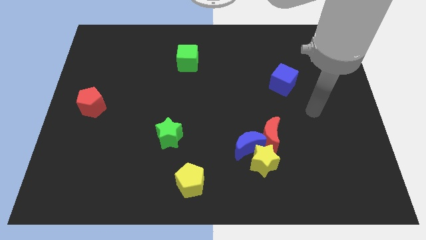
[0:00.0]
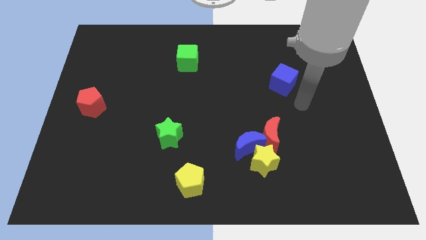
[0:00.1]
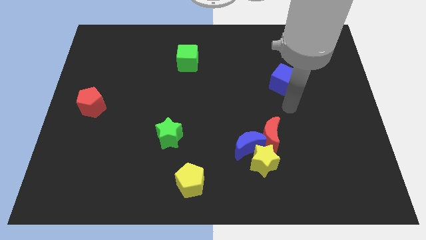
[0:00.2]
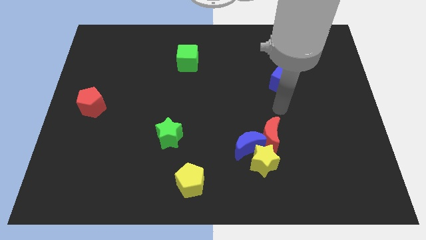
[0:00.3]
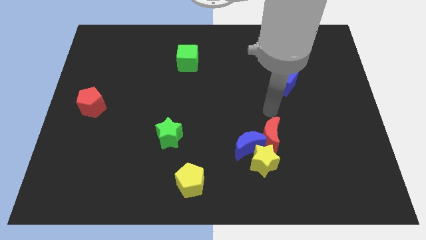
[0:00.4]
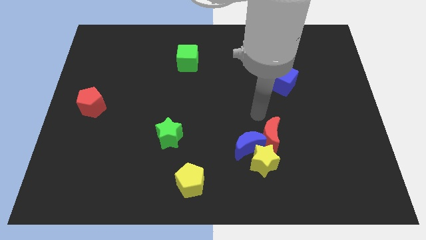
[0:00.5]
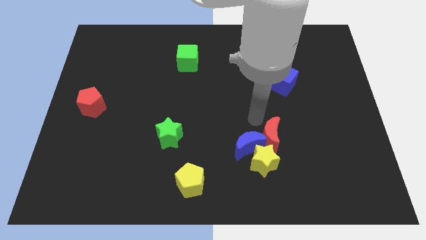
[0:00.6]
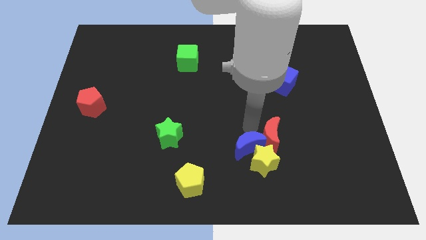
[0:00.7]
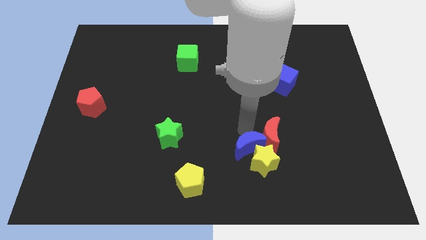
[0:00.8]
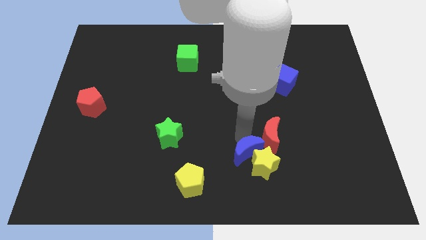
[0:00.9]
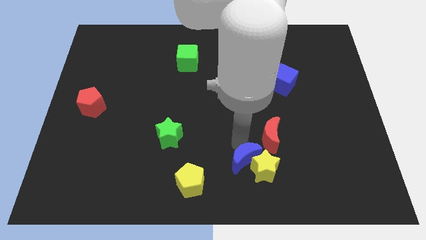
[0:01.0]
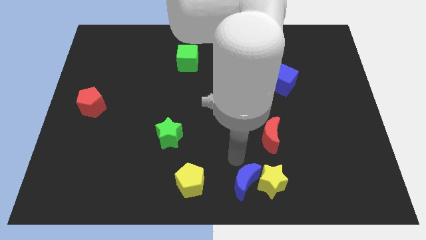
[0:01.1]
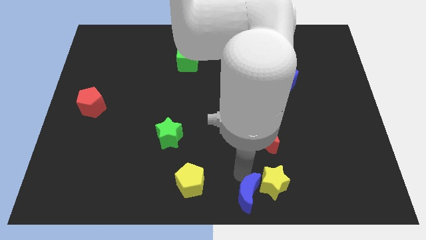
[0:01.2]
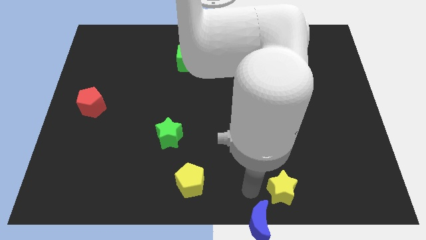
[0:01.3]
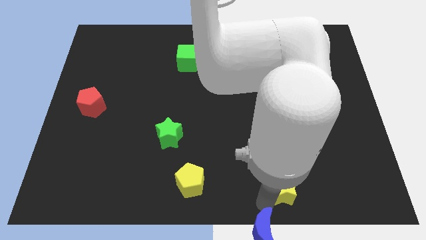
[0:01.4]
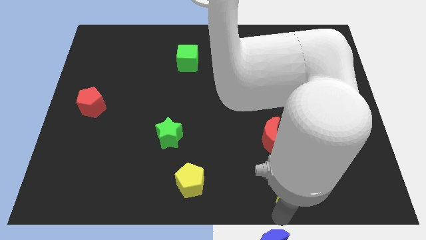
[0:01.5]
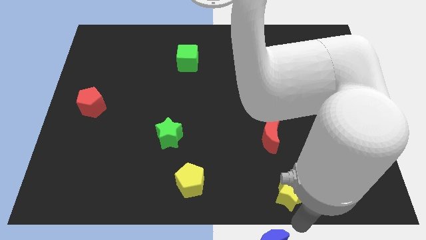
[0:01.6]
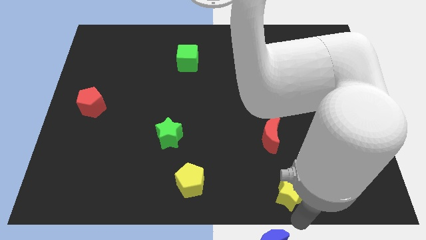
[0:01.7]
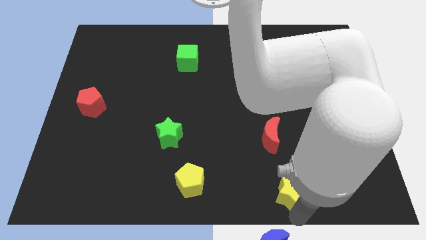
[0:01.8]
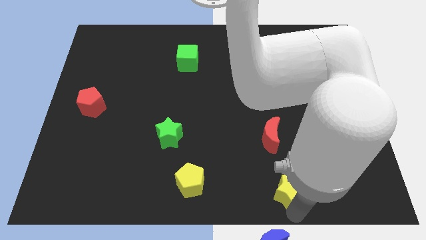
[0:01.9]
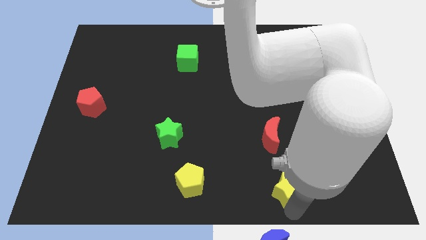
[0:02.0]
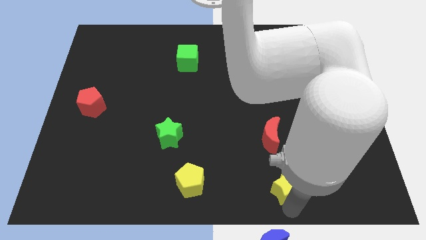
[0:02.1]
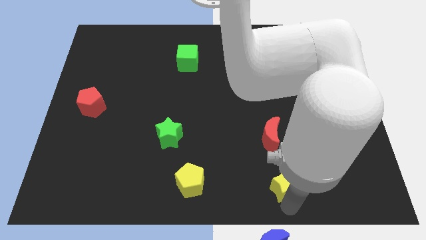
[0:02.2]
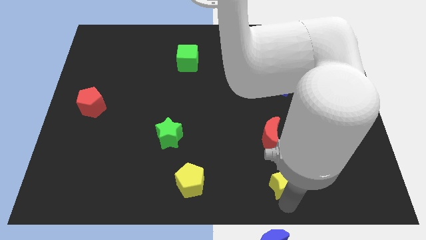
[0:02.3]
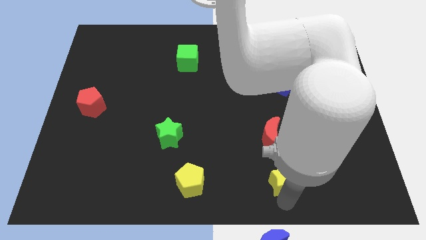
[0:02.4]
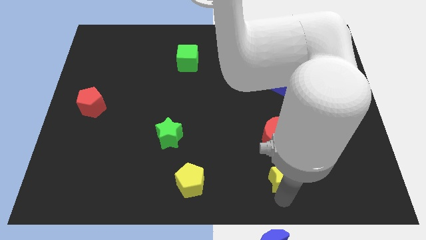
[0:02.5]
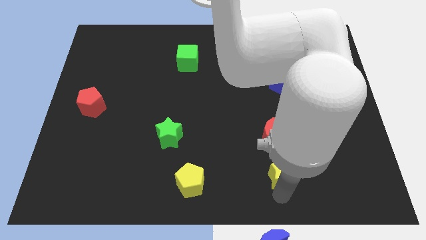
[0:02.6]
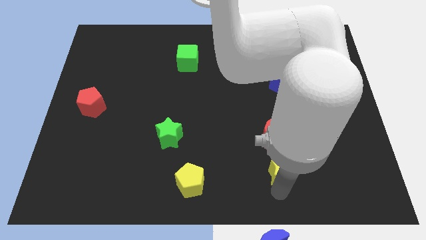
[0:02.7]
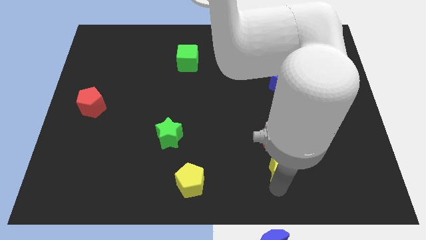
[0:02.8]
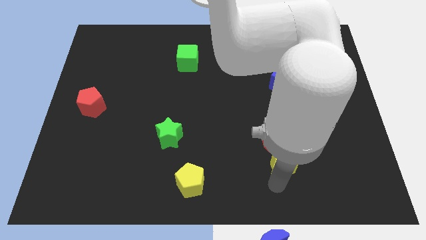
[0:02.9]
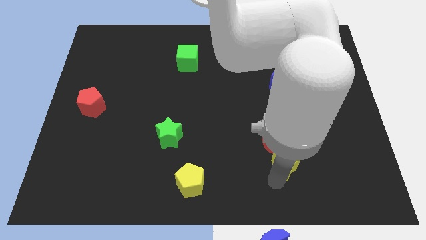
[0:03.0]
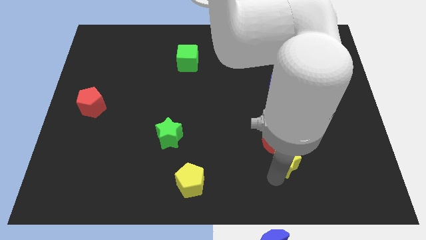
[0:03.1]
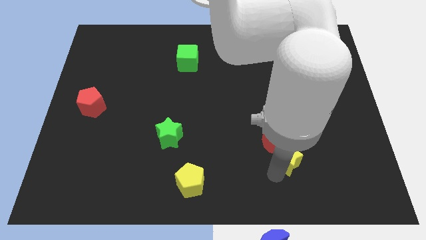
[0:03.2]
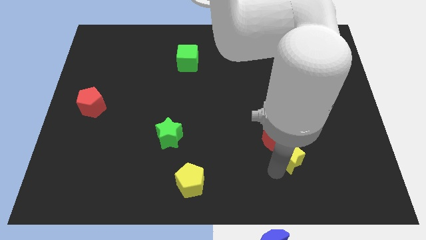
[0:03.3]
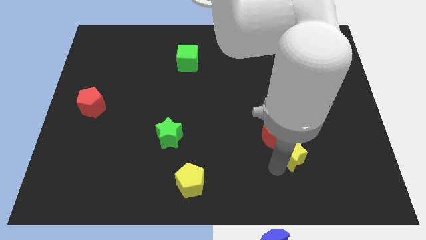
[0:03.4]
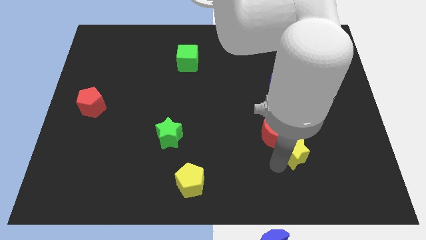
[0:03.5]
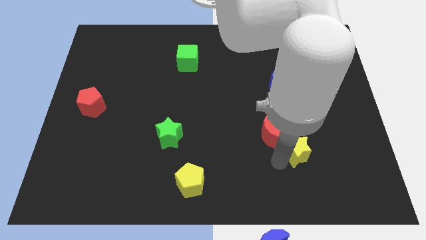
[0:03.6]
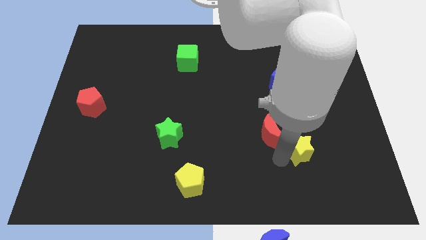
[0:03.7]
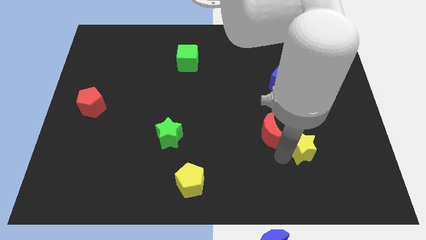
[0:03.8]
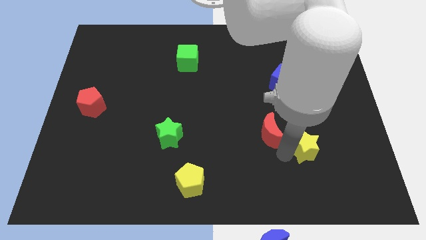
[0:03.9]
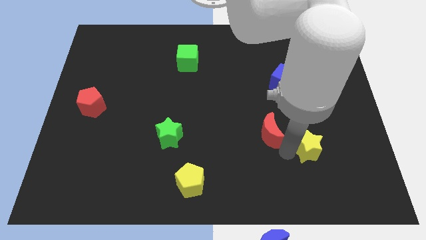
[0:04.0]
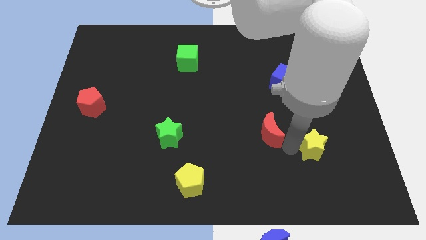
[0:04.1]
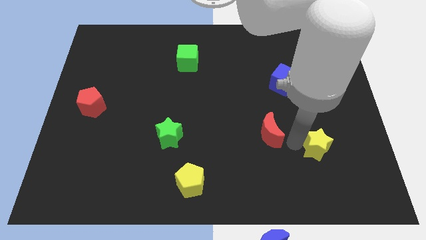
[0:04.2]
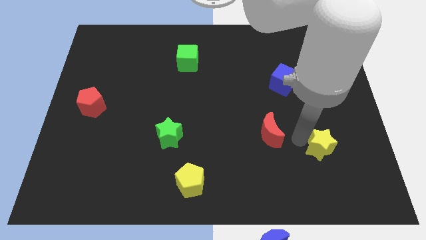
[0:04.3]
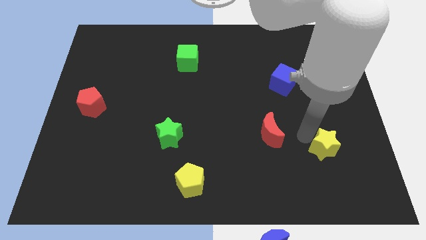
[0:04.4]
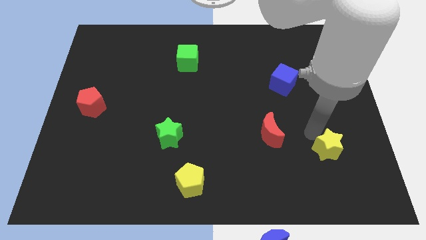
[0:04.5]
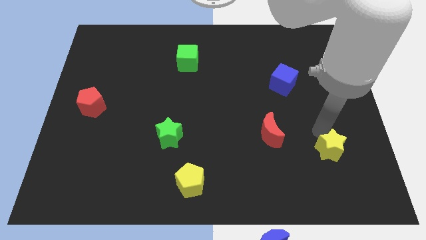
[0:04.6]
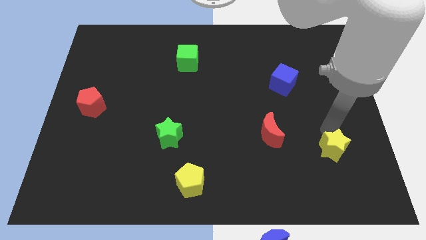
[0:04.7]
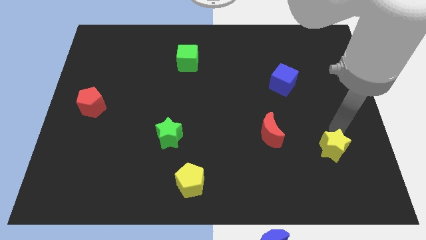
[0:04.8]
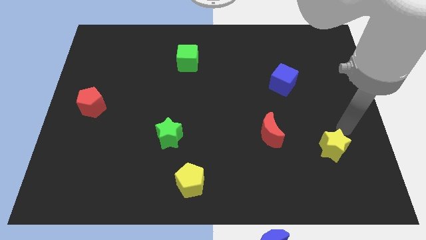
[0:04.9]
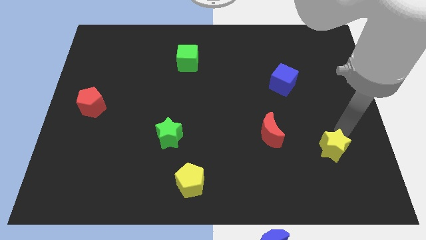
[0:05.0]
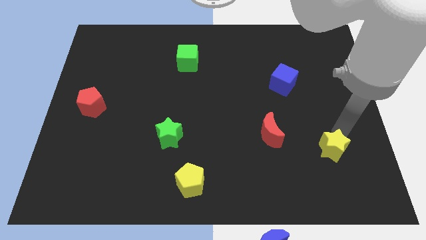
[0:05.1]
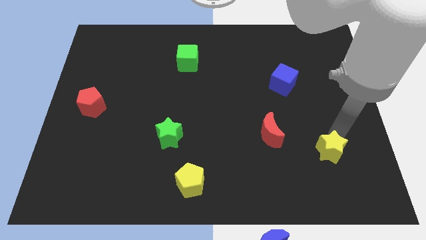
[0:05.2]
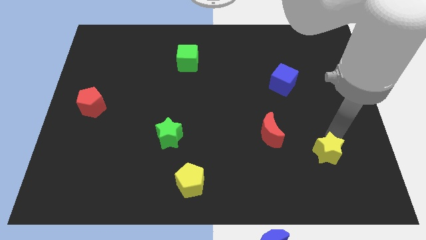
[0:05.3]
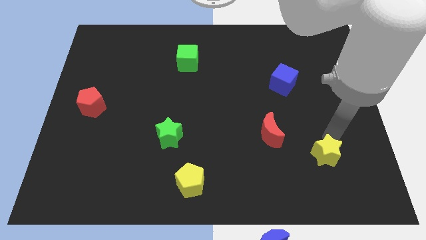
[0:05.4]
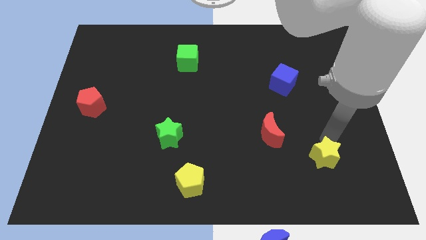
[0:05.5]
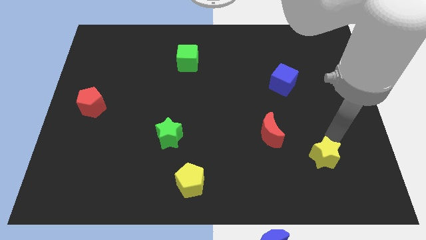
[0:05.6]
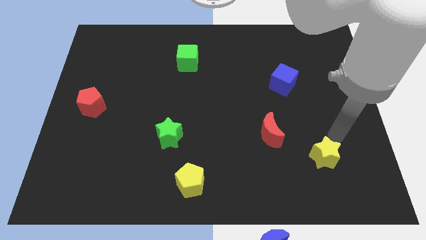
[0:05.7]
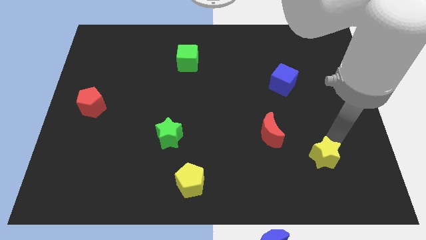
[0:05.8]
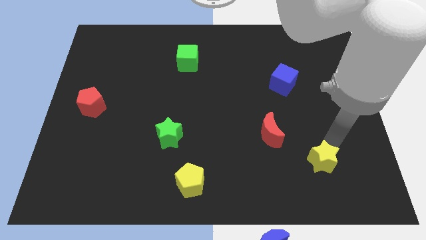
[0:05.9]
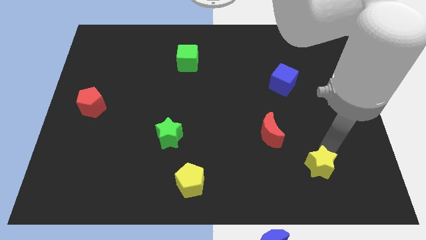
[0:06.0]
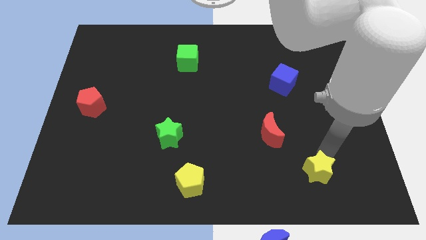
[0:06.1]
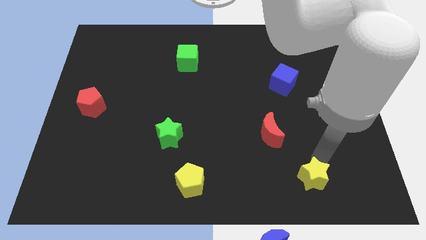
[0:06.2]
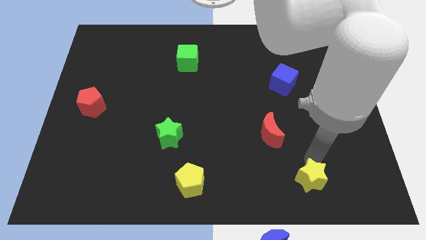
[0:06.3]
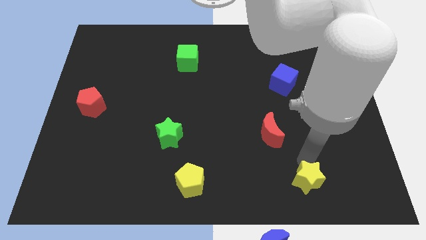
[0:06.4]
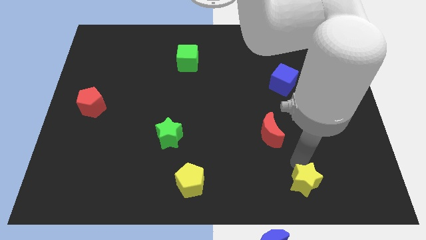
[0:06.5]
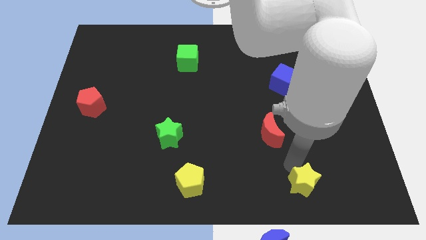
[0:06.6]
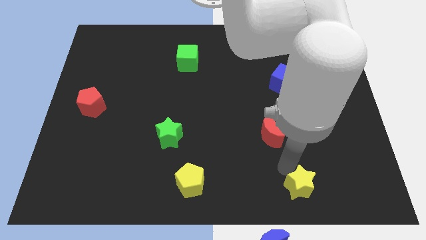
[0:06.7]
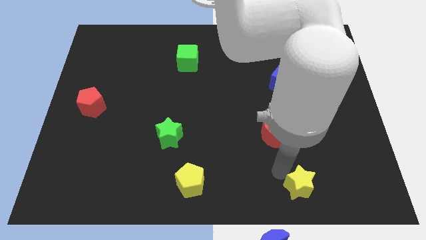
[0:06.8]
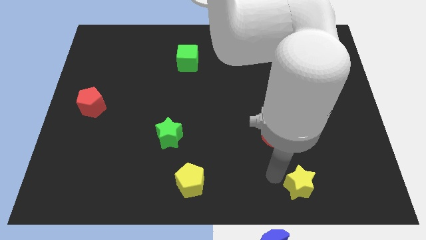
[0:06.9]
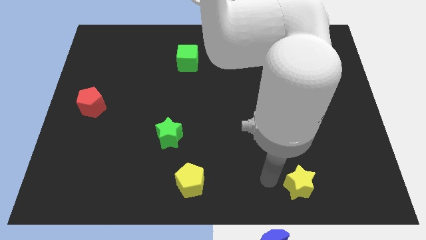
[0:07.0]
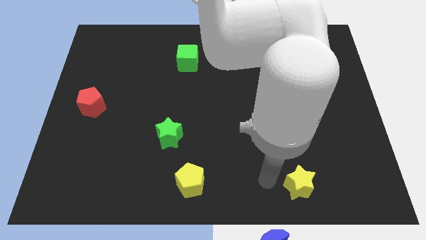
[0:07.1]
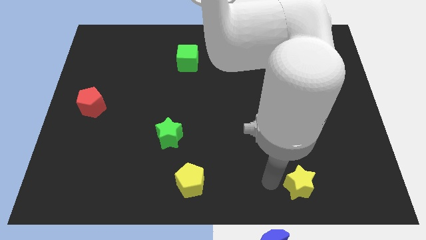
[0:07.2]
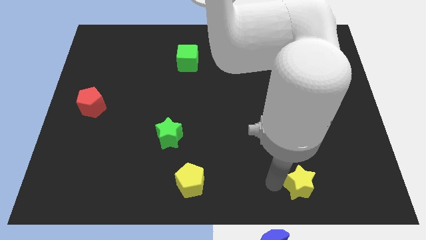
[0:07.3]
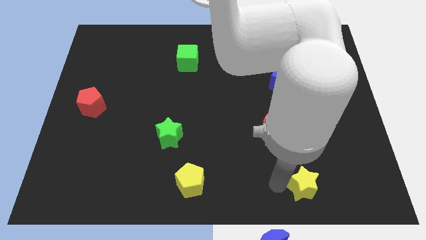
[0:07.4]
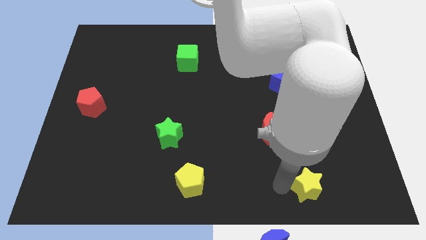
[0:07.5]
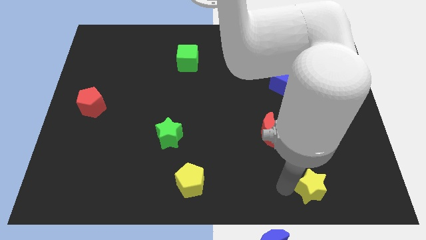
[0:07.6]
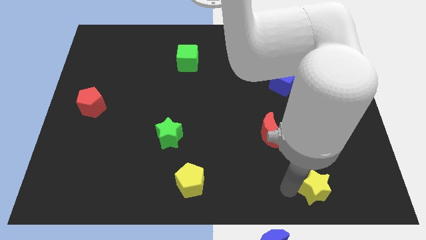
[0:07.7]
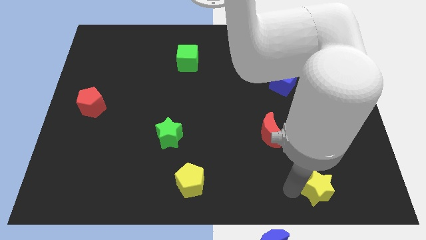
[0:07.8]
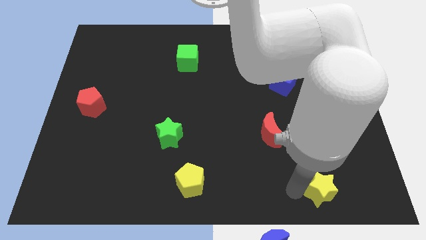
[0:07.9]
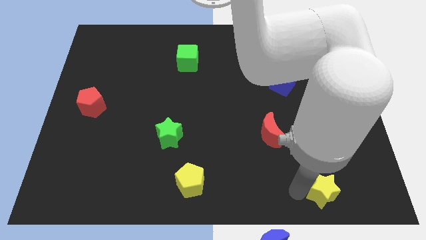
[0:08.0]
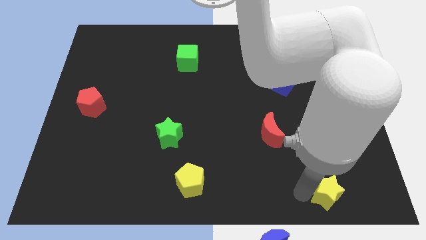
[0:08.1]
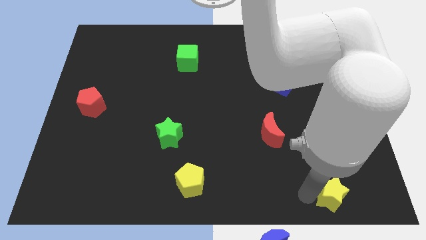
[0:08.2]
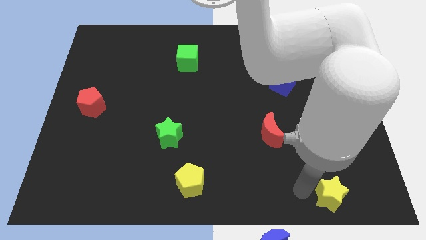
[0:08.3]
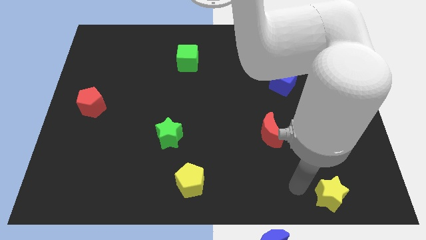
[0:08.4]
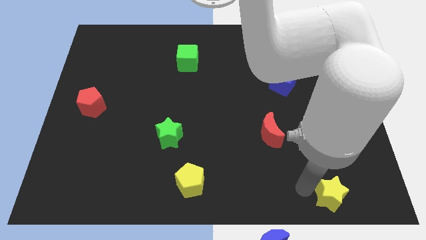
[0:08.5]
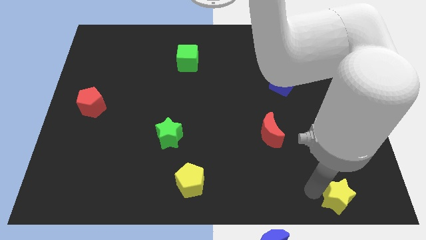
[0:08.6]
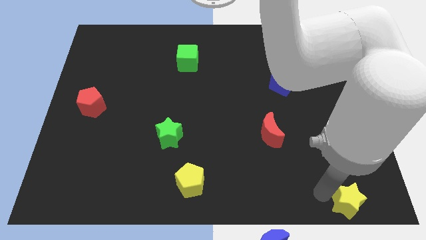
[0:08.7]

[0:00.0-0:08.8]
slide the yellow star to the bottom right
